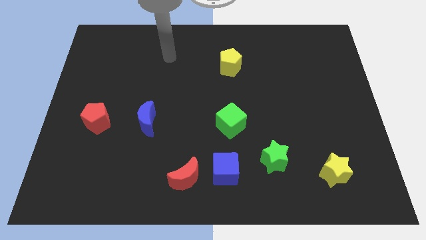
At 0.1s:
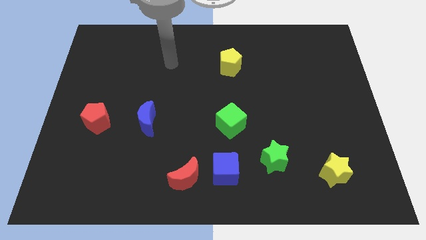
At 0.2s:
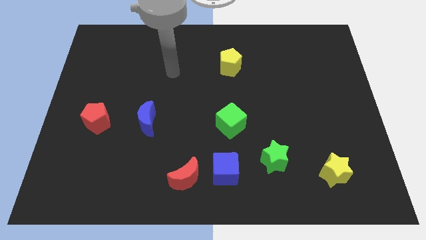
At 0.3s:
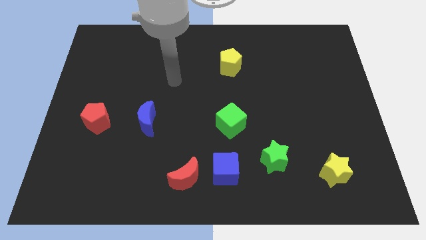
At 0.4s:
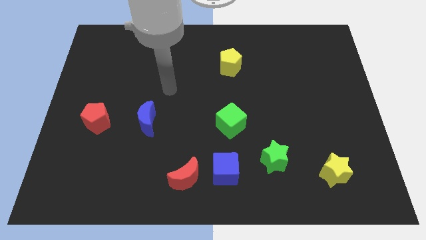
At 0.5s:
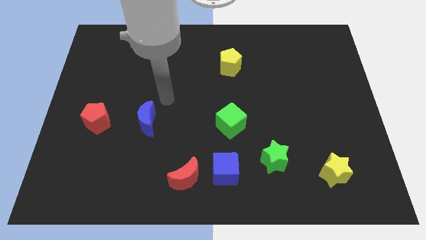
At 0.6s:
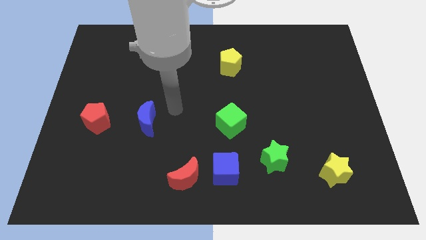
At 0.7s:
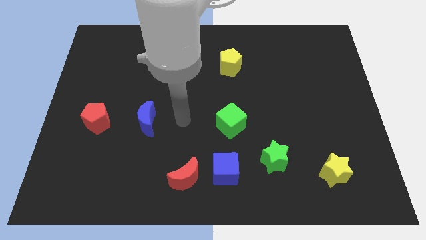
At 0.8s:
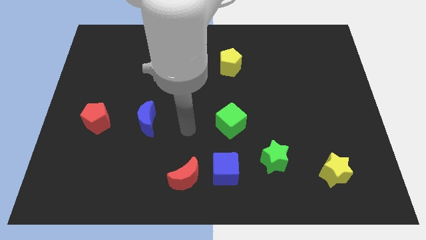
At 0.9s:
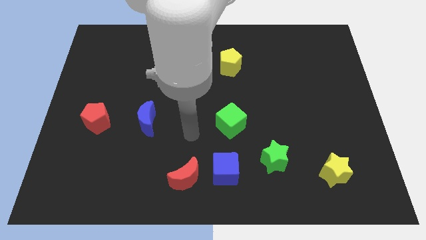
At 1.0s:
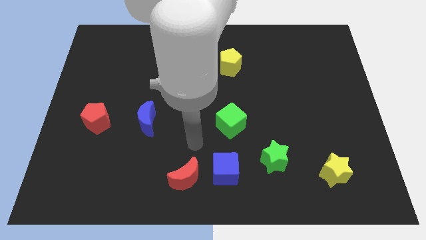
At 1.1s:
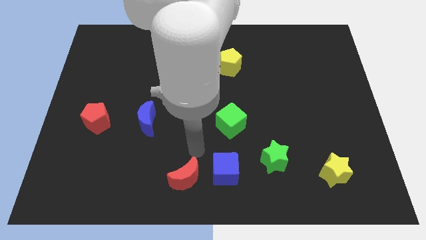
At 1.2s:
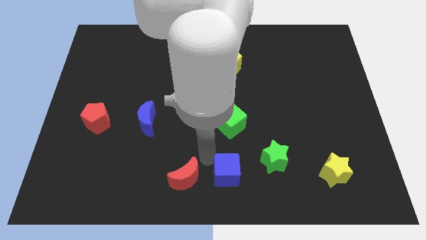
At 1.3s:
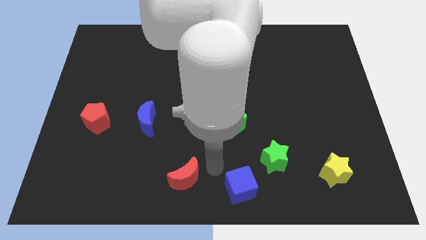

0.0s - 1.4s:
pull the red moon apart from the blue cube

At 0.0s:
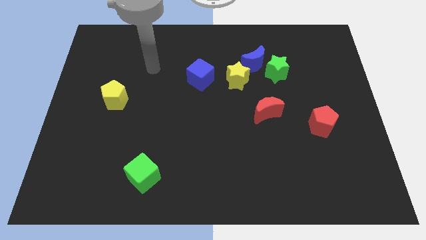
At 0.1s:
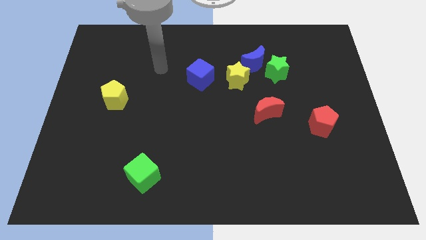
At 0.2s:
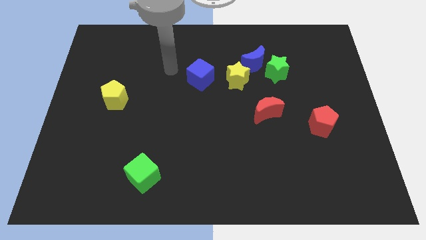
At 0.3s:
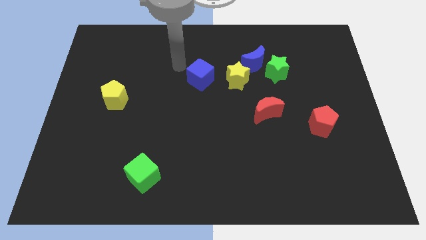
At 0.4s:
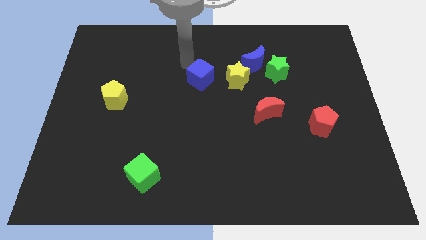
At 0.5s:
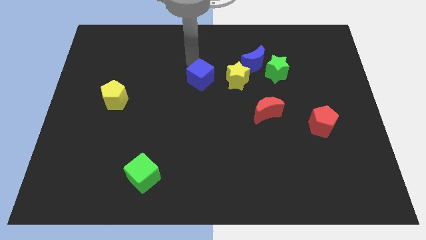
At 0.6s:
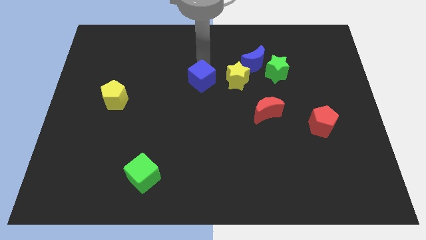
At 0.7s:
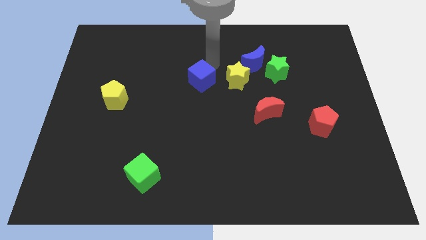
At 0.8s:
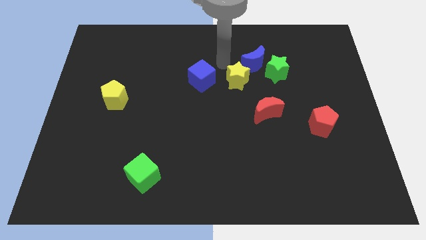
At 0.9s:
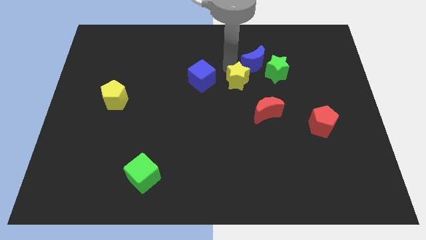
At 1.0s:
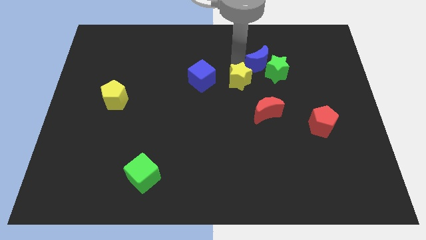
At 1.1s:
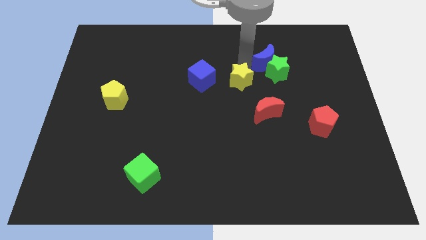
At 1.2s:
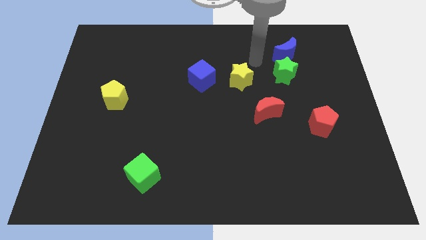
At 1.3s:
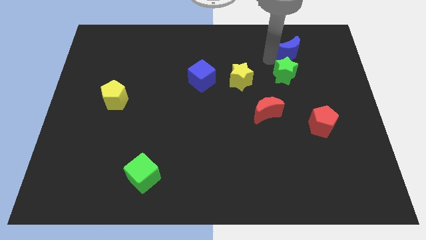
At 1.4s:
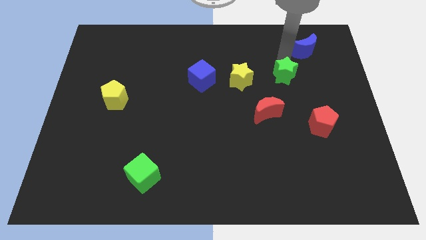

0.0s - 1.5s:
pull the green star apart from the blue moon

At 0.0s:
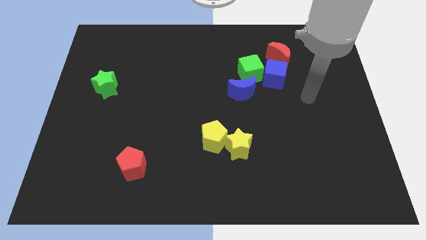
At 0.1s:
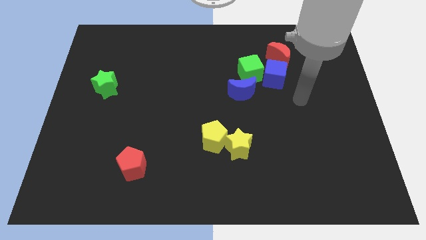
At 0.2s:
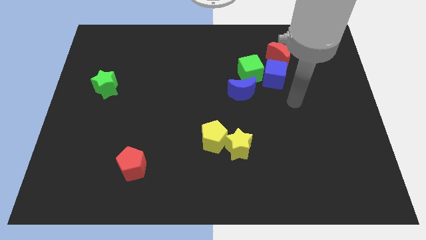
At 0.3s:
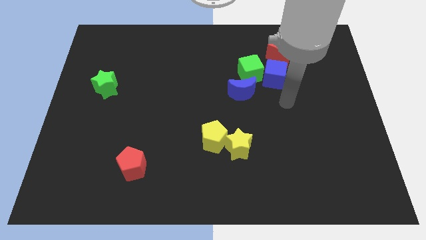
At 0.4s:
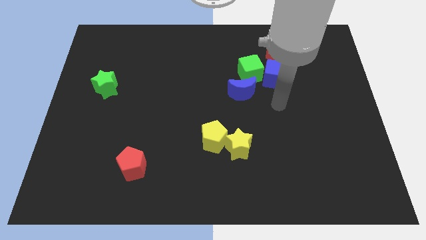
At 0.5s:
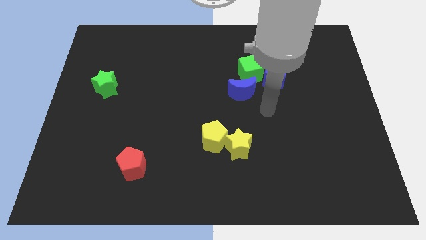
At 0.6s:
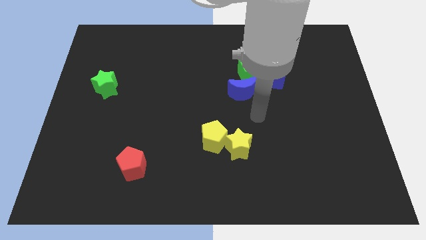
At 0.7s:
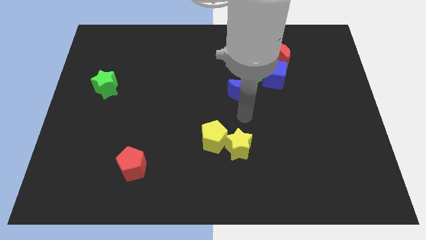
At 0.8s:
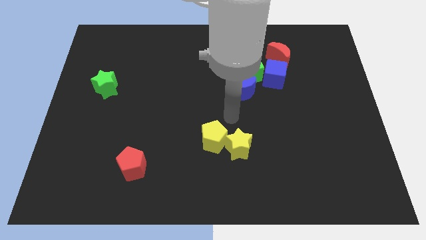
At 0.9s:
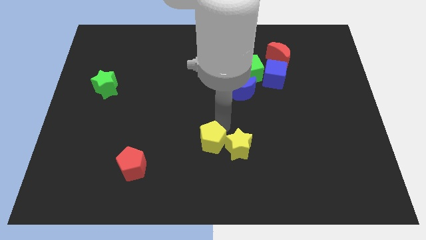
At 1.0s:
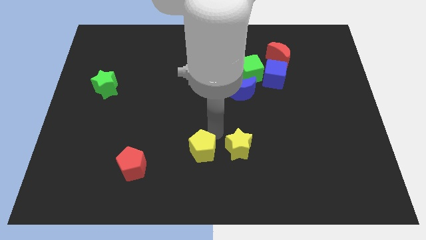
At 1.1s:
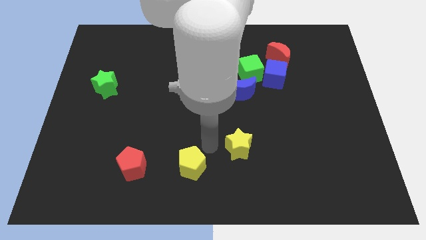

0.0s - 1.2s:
move the yellow star away from the yellow pentagon

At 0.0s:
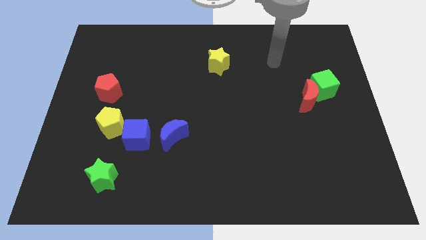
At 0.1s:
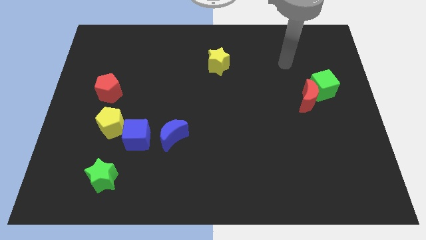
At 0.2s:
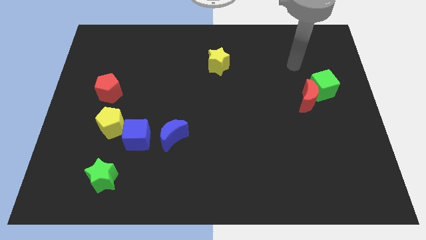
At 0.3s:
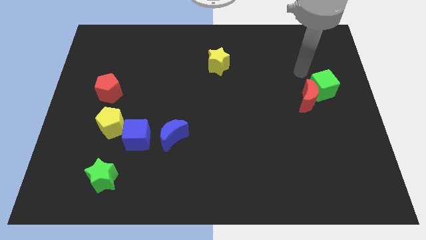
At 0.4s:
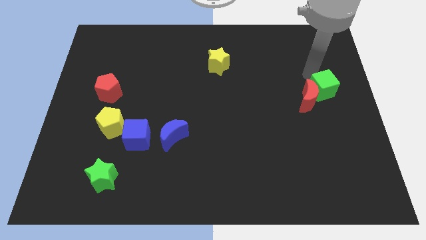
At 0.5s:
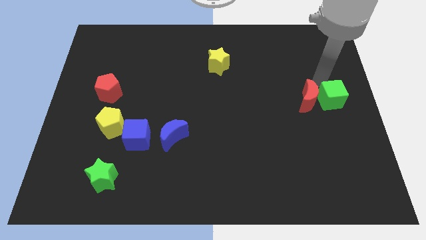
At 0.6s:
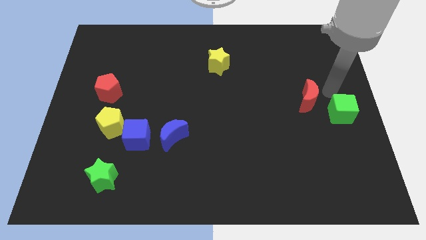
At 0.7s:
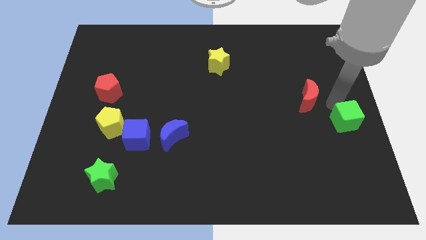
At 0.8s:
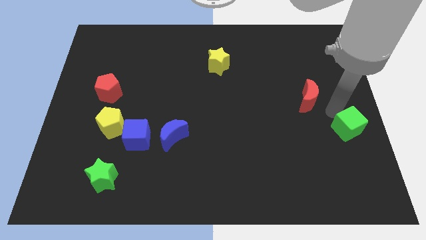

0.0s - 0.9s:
move the red moon away from the green cube

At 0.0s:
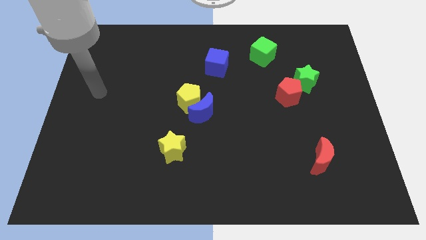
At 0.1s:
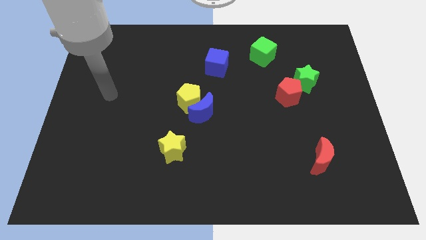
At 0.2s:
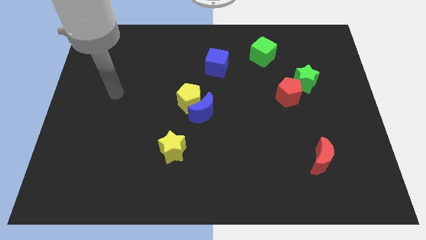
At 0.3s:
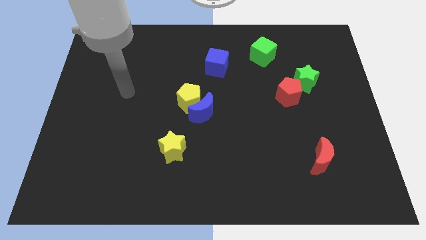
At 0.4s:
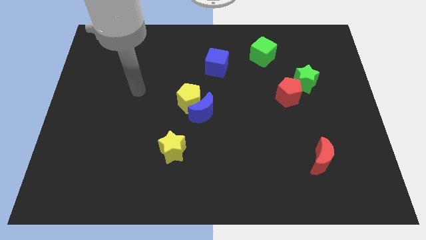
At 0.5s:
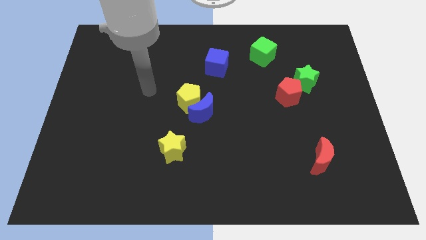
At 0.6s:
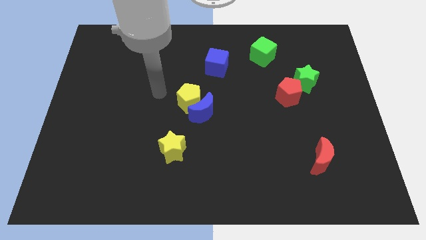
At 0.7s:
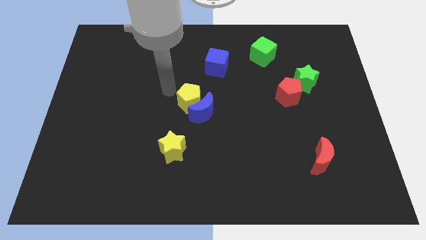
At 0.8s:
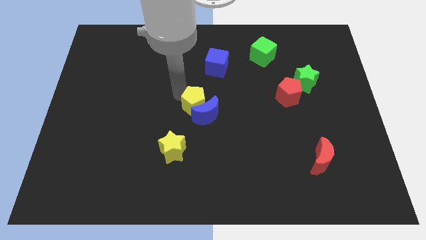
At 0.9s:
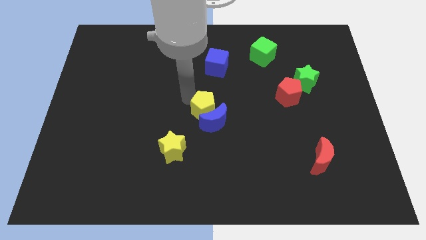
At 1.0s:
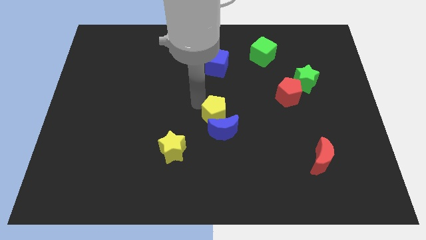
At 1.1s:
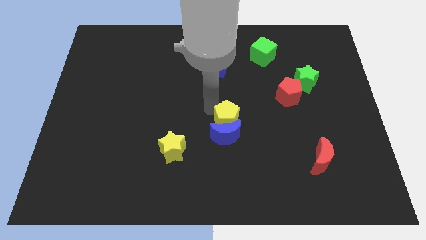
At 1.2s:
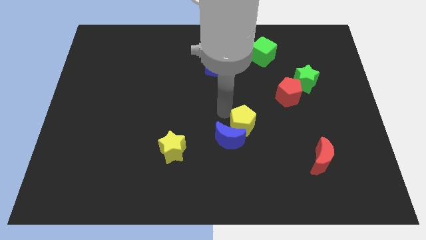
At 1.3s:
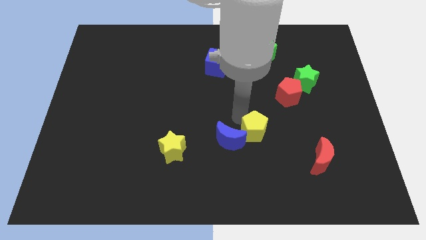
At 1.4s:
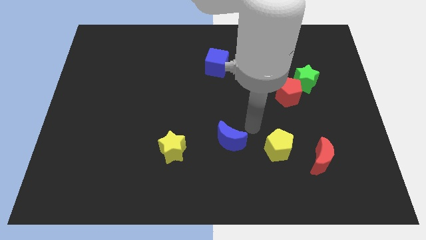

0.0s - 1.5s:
move the blue moon away from the yellow pentagon

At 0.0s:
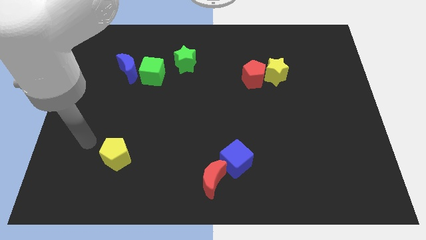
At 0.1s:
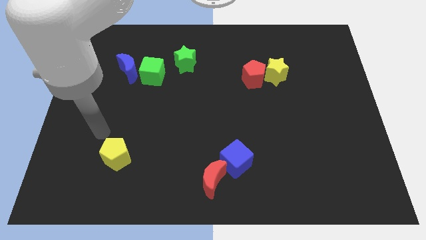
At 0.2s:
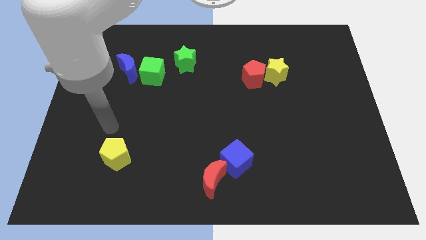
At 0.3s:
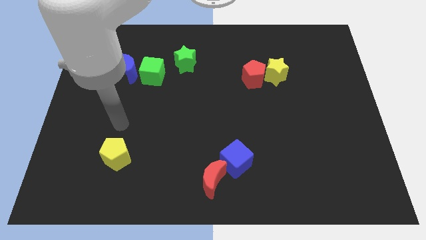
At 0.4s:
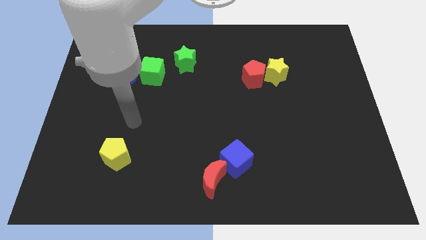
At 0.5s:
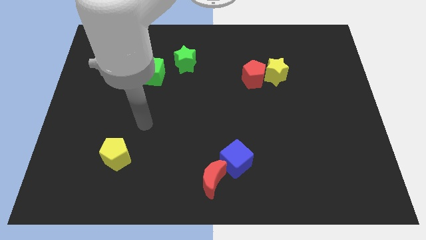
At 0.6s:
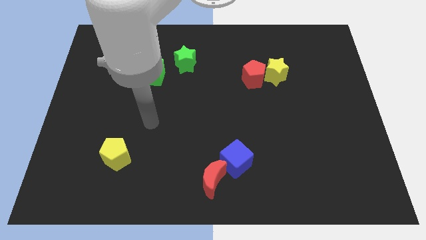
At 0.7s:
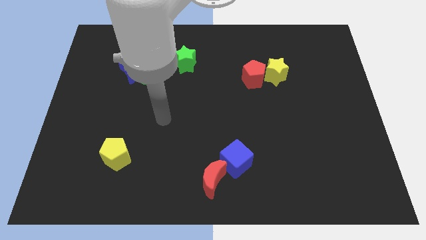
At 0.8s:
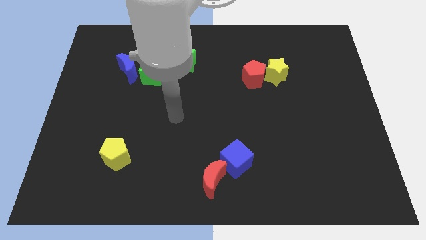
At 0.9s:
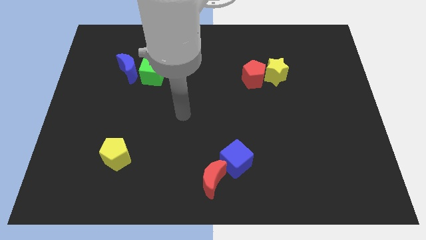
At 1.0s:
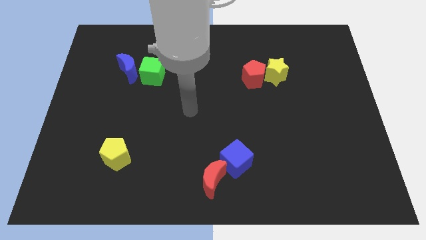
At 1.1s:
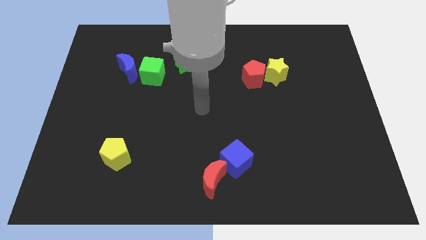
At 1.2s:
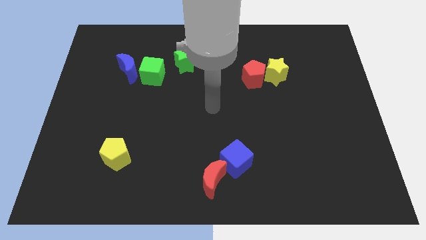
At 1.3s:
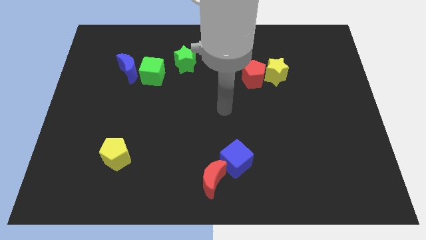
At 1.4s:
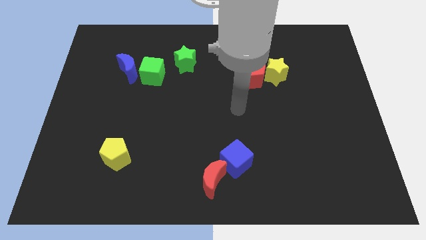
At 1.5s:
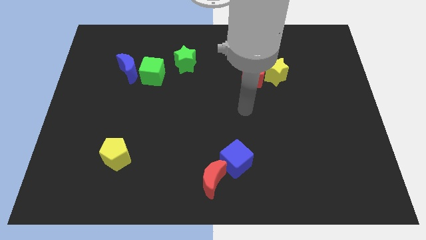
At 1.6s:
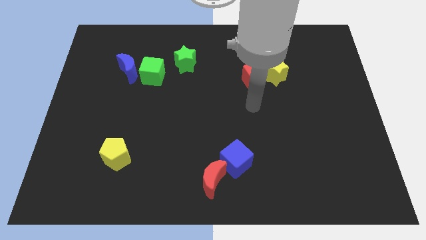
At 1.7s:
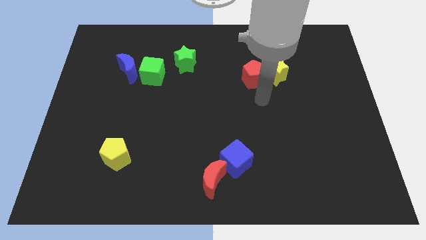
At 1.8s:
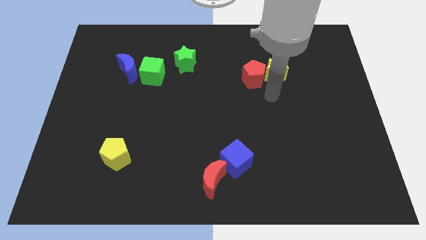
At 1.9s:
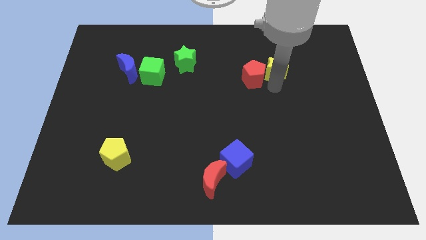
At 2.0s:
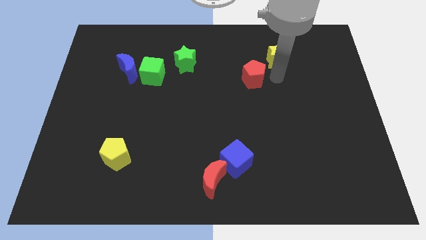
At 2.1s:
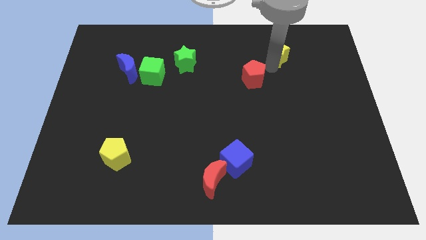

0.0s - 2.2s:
separate the red pentagon from the yellow star

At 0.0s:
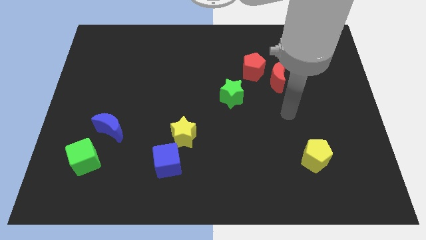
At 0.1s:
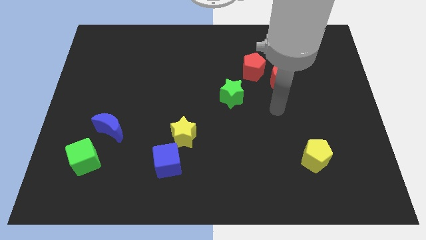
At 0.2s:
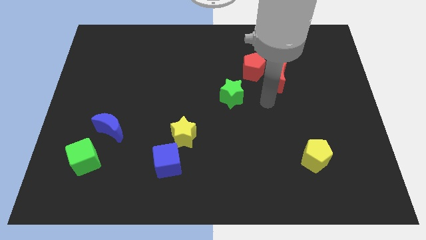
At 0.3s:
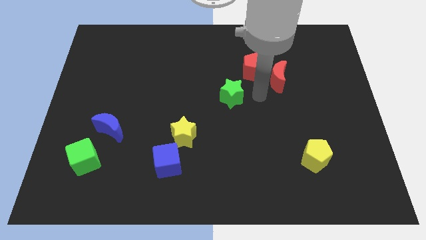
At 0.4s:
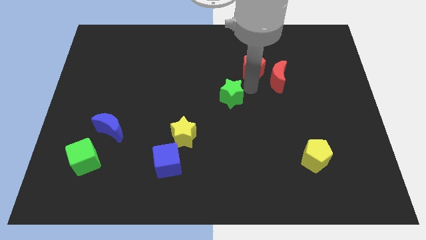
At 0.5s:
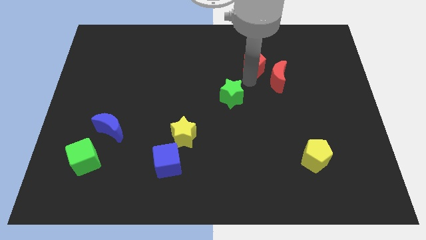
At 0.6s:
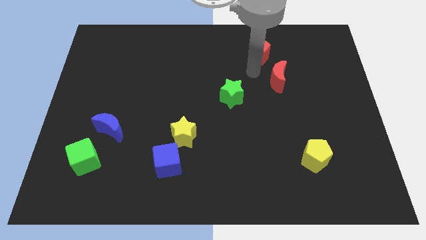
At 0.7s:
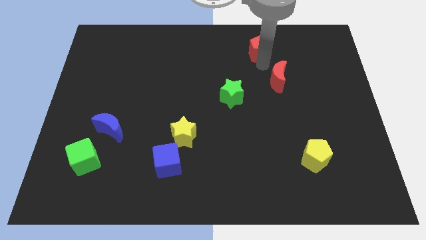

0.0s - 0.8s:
separate the red moon from the red pentagon
